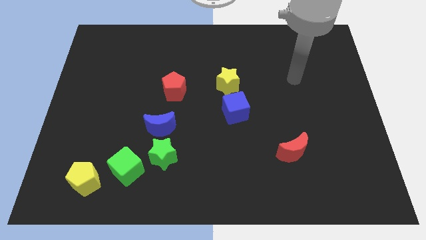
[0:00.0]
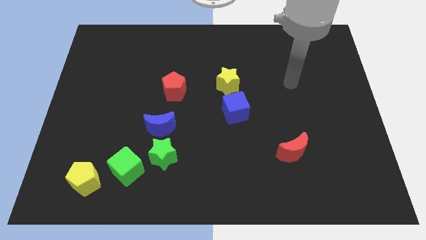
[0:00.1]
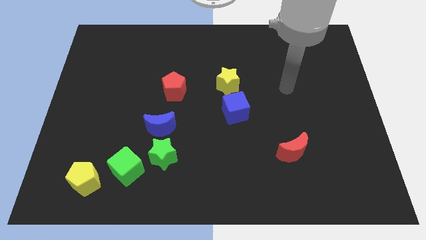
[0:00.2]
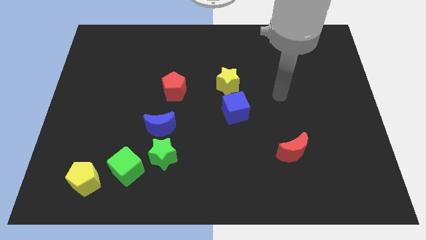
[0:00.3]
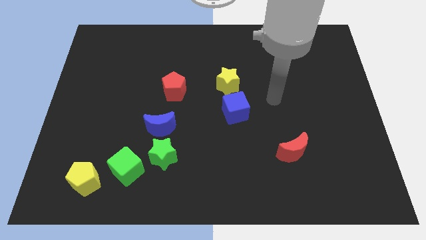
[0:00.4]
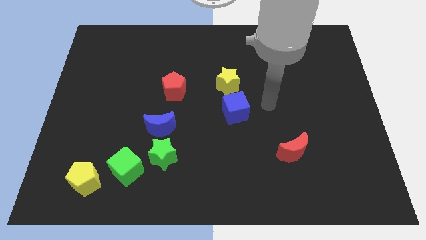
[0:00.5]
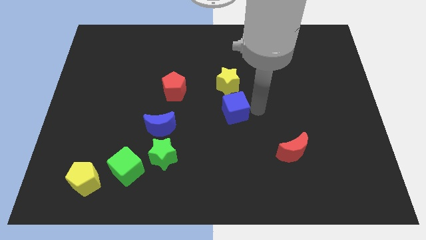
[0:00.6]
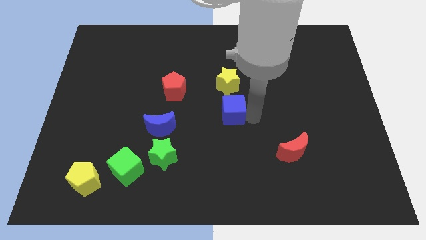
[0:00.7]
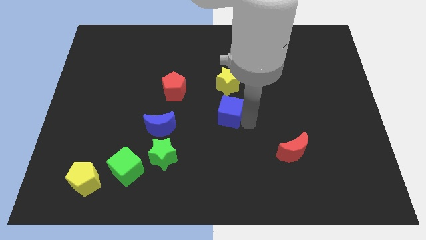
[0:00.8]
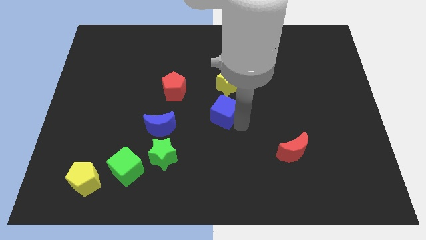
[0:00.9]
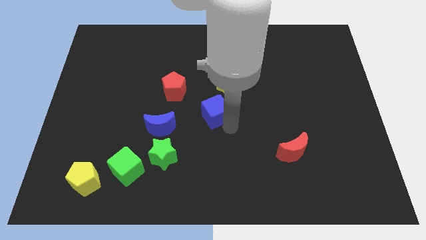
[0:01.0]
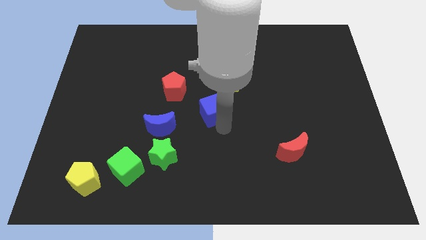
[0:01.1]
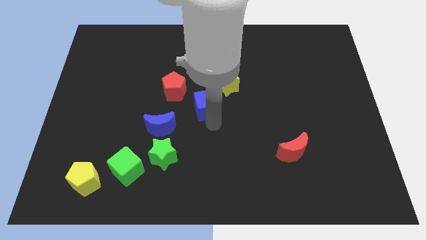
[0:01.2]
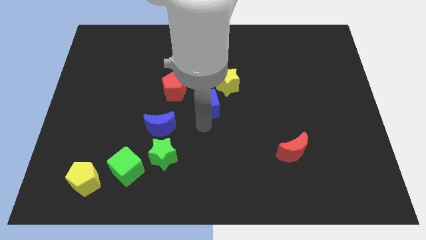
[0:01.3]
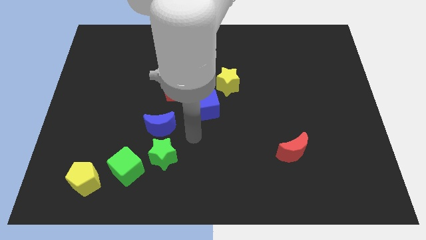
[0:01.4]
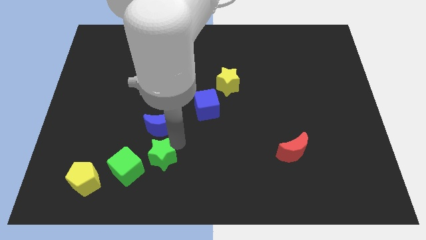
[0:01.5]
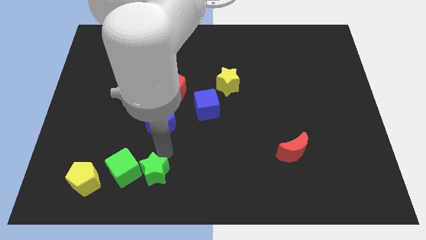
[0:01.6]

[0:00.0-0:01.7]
move the blue moon away from the green star

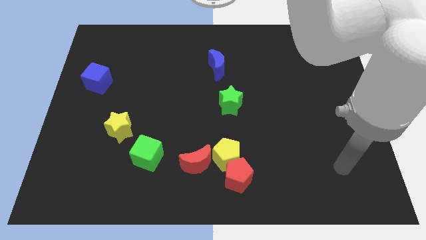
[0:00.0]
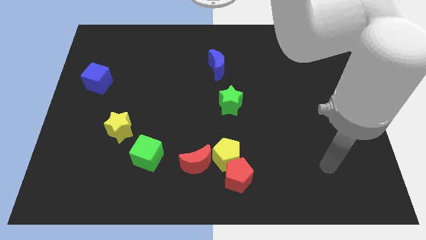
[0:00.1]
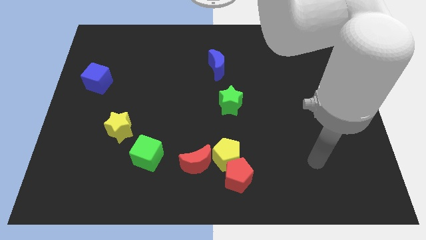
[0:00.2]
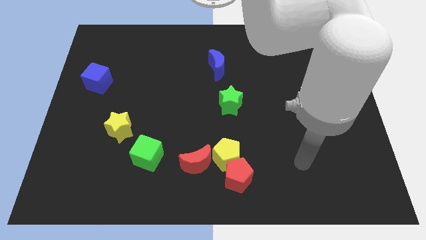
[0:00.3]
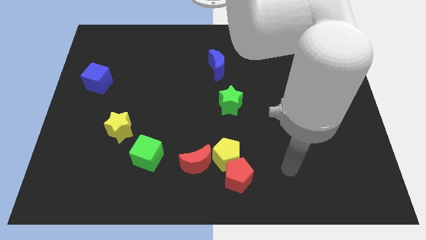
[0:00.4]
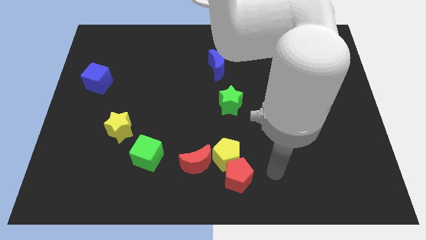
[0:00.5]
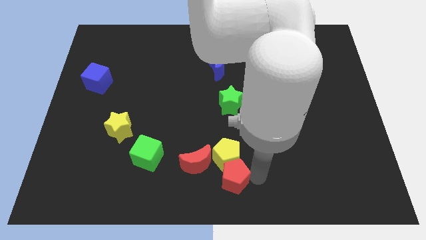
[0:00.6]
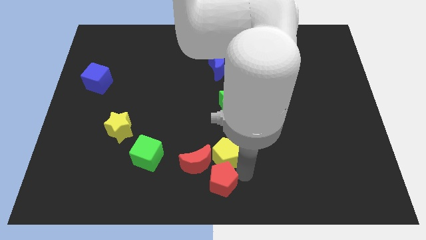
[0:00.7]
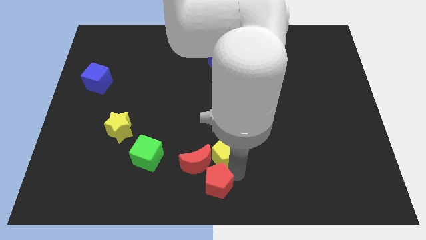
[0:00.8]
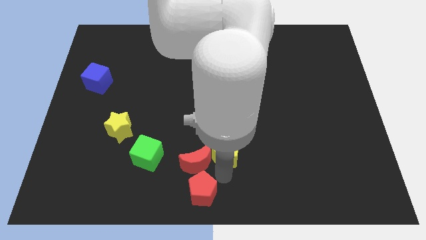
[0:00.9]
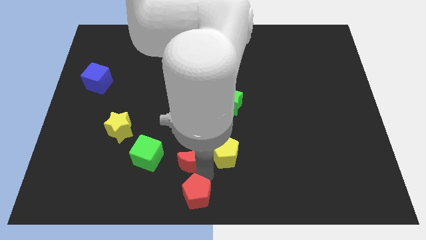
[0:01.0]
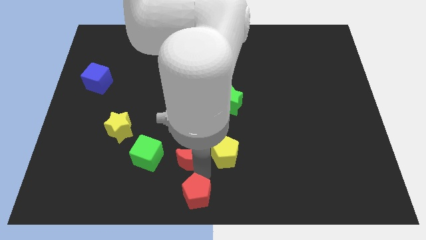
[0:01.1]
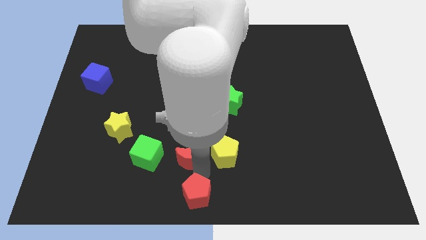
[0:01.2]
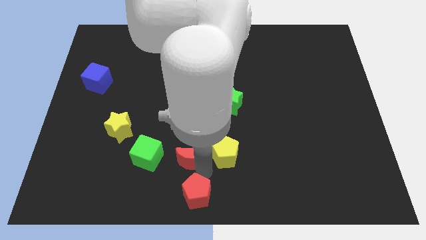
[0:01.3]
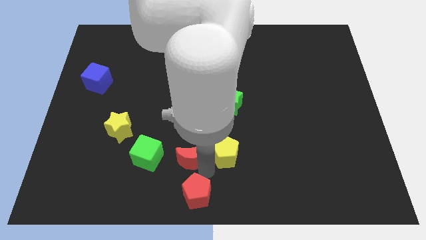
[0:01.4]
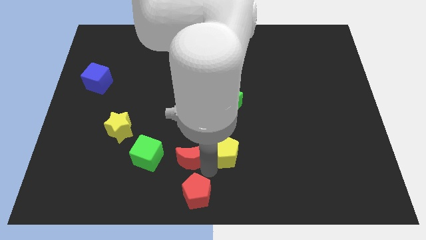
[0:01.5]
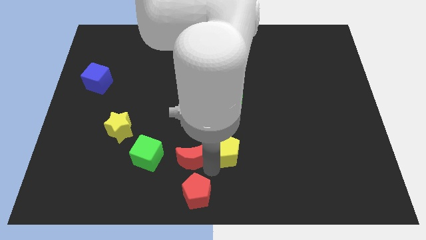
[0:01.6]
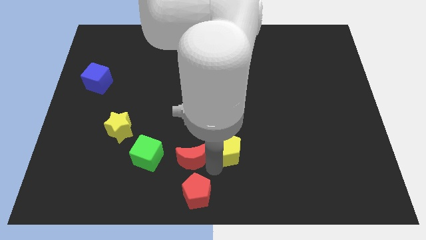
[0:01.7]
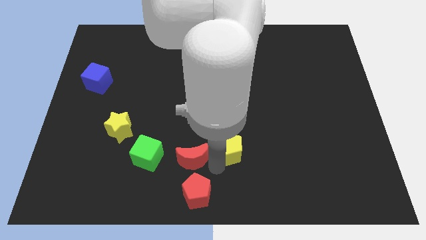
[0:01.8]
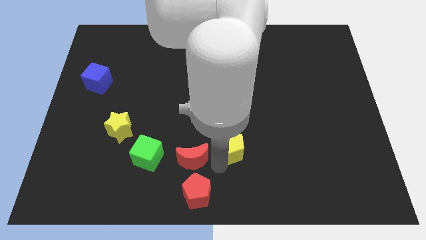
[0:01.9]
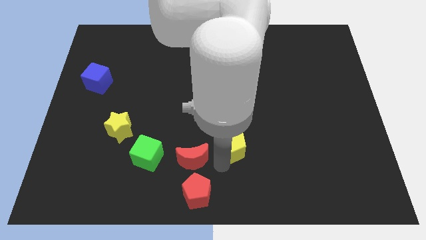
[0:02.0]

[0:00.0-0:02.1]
pull the yellow pentagon apart from the red pentagon and red moon

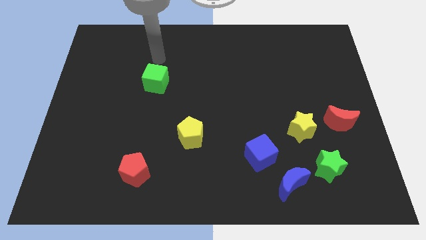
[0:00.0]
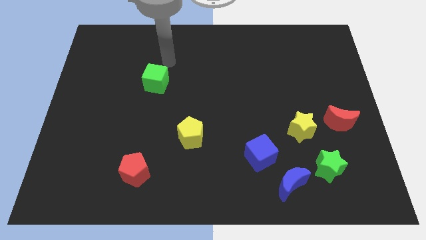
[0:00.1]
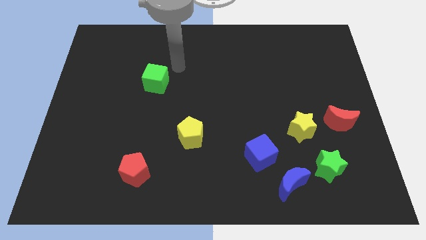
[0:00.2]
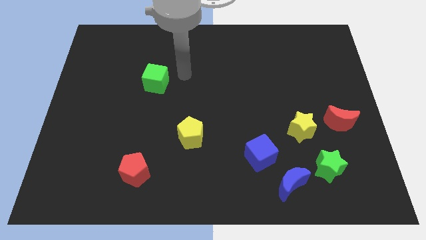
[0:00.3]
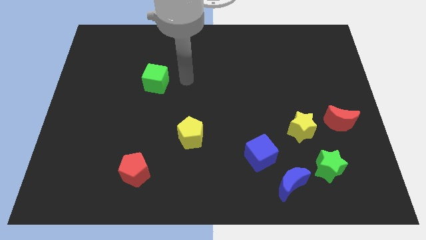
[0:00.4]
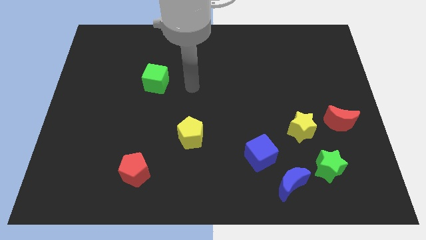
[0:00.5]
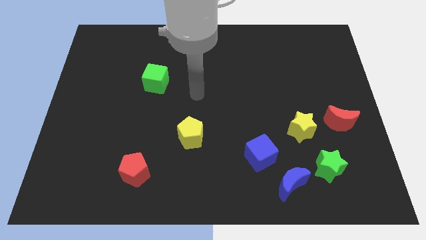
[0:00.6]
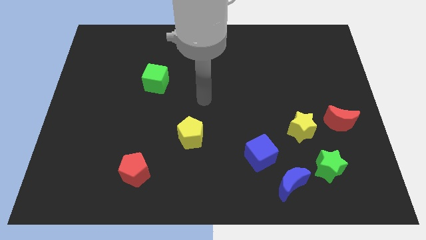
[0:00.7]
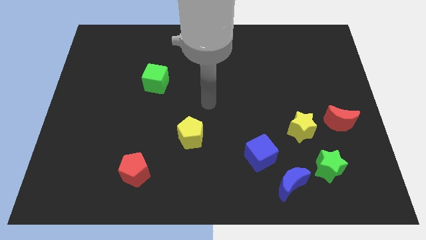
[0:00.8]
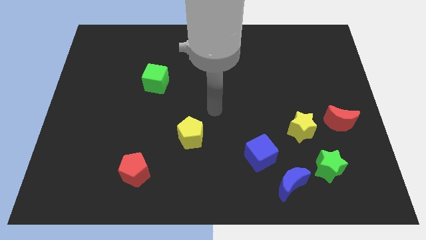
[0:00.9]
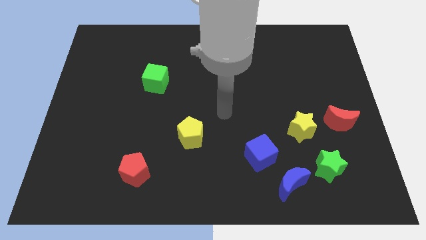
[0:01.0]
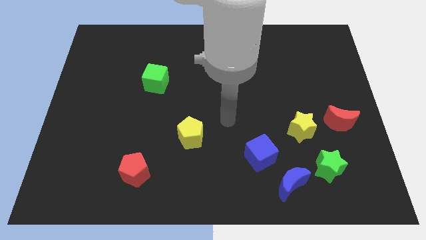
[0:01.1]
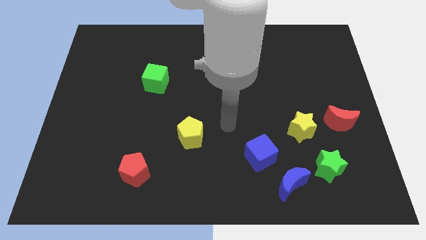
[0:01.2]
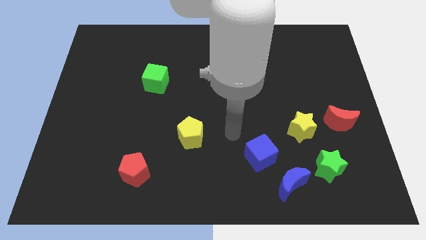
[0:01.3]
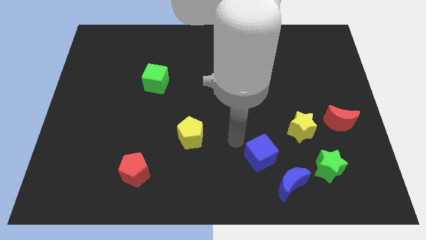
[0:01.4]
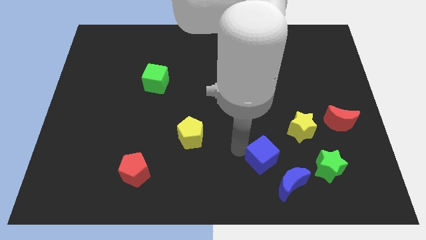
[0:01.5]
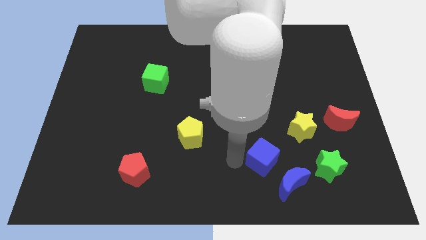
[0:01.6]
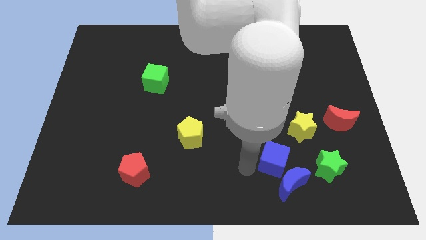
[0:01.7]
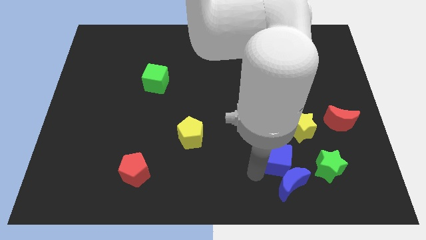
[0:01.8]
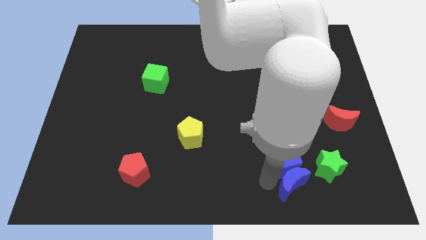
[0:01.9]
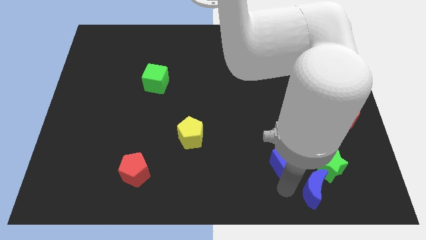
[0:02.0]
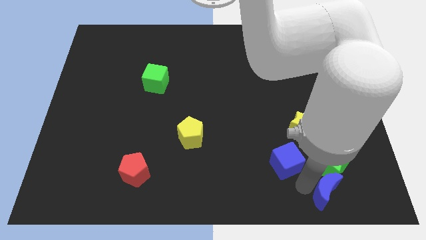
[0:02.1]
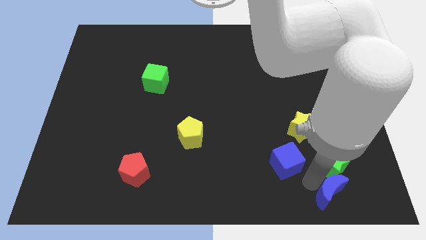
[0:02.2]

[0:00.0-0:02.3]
separate the blue cube from the blue moon

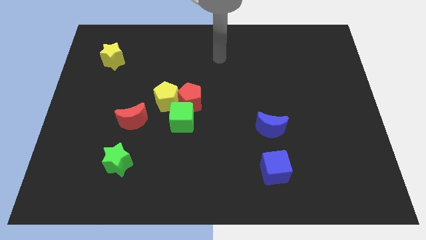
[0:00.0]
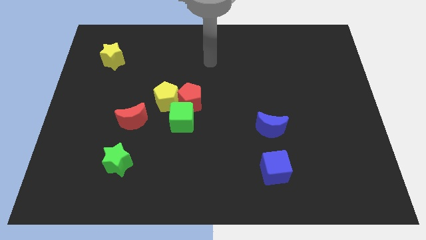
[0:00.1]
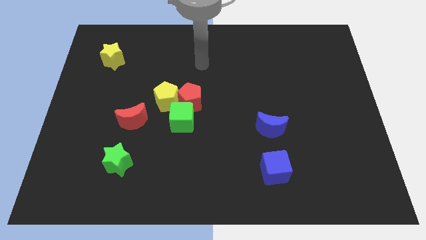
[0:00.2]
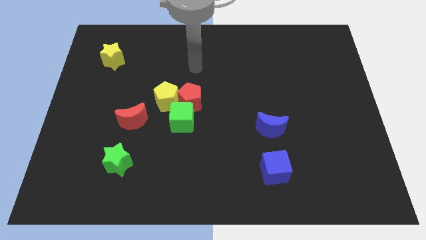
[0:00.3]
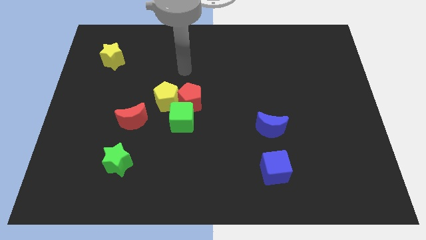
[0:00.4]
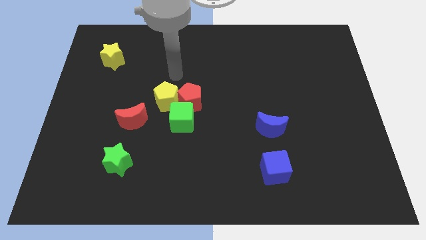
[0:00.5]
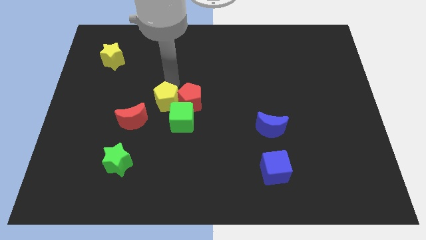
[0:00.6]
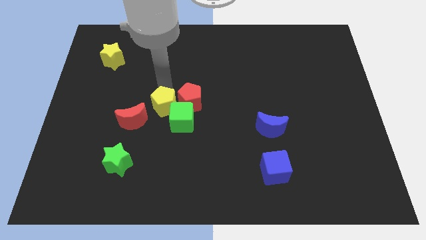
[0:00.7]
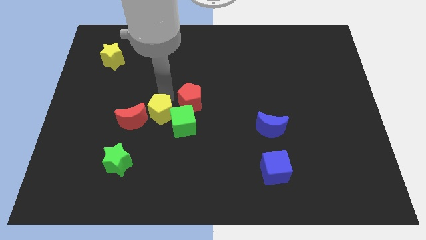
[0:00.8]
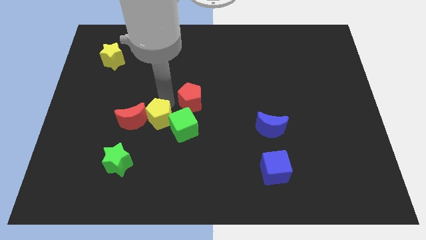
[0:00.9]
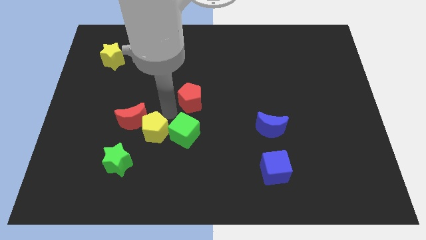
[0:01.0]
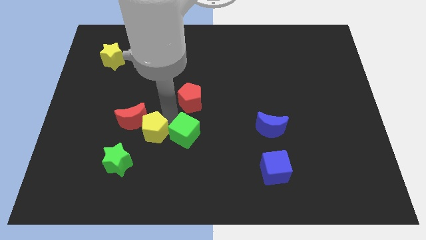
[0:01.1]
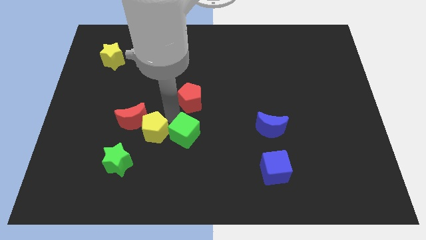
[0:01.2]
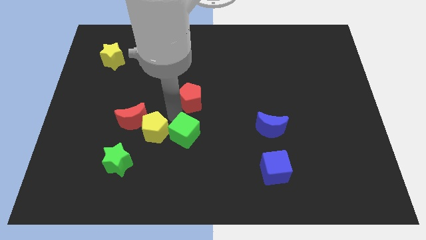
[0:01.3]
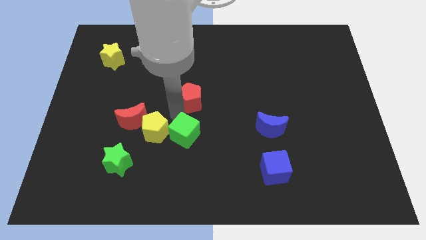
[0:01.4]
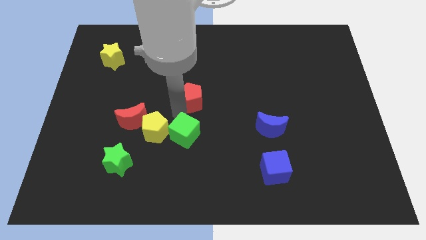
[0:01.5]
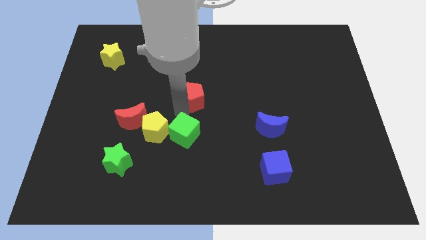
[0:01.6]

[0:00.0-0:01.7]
pull the red pentagon apart from the yellow pentagon and green cube

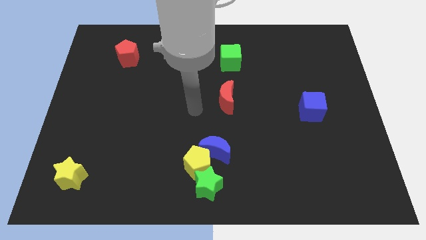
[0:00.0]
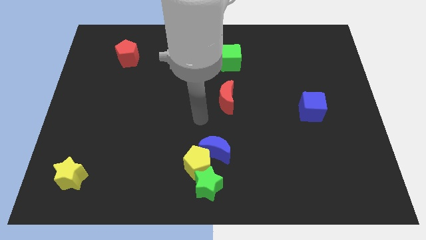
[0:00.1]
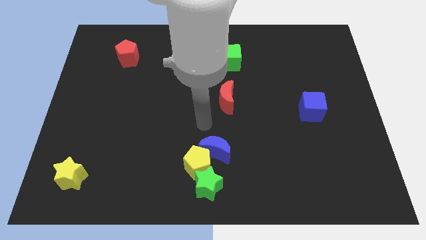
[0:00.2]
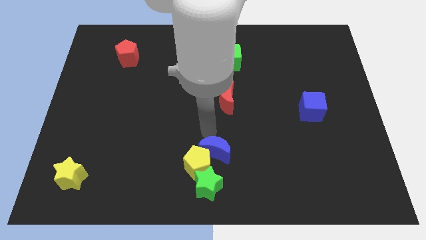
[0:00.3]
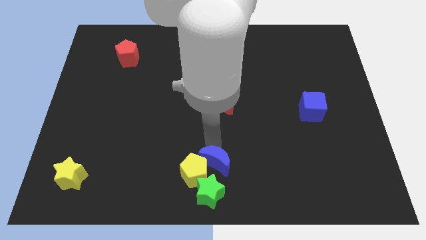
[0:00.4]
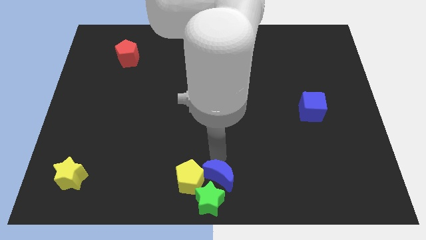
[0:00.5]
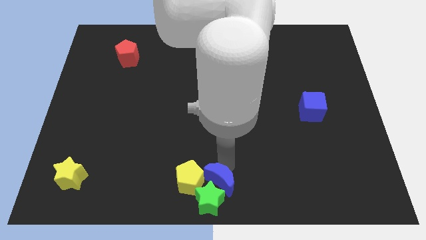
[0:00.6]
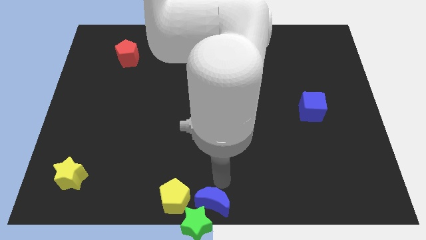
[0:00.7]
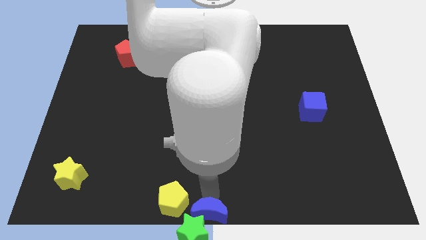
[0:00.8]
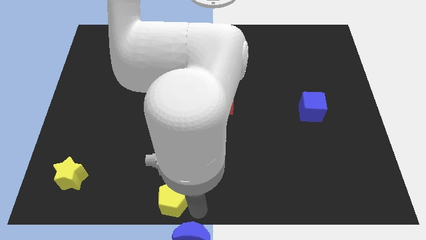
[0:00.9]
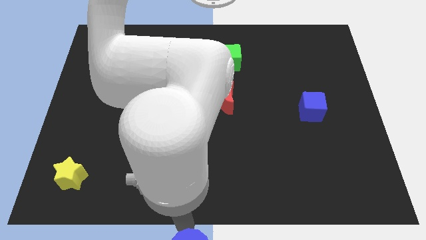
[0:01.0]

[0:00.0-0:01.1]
pull the yellow pentagon apart from the green star and blue moon

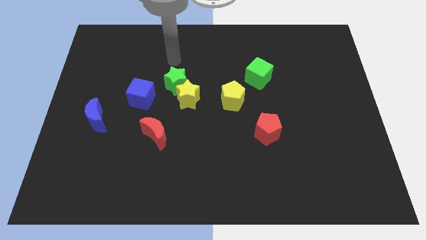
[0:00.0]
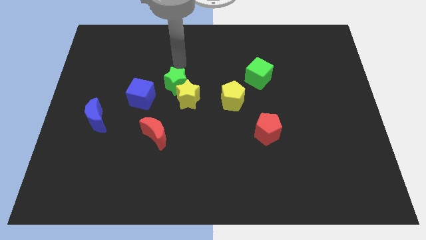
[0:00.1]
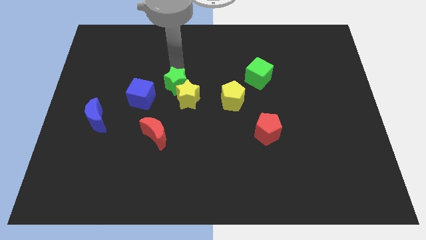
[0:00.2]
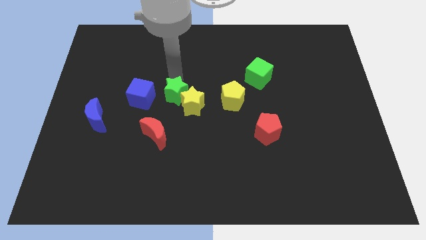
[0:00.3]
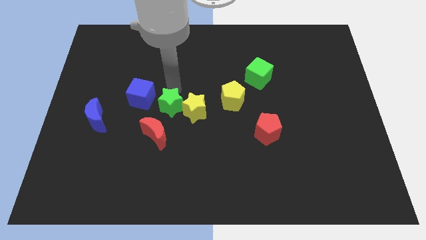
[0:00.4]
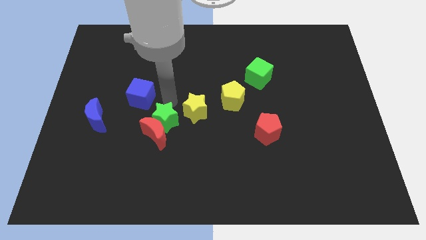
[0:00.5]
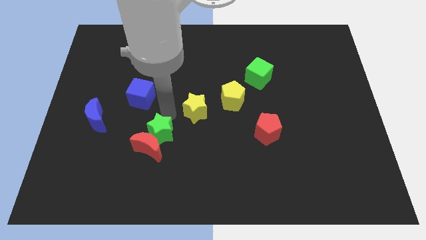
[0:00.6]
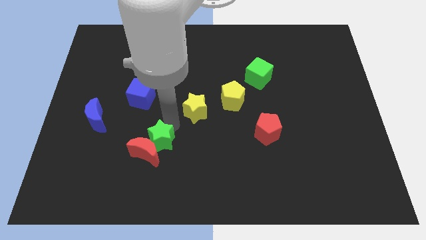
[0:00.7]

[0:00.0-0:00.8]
separate the yellow star from the green star
